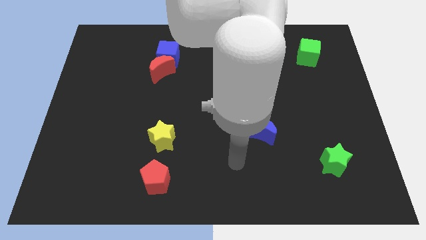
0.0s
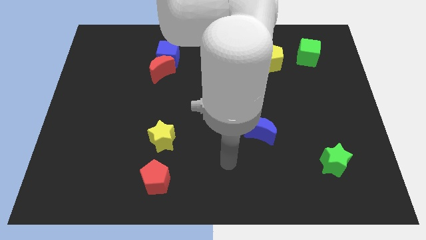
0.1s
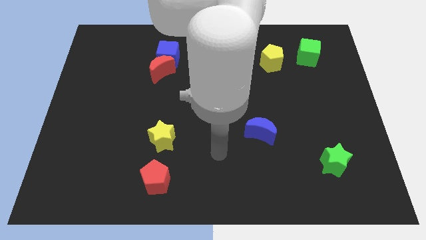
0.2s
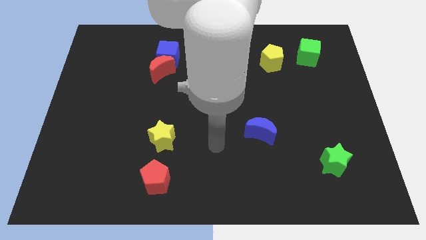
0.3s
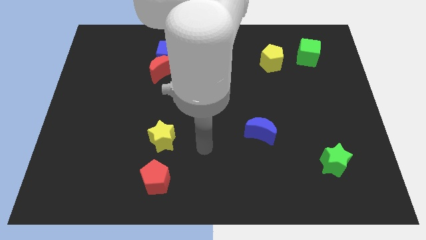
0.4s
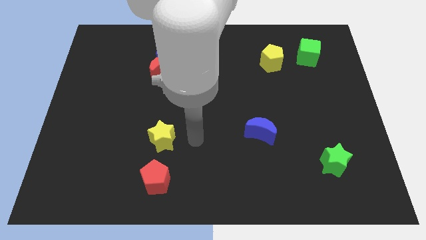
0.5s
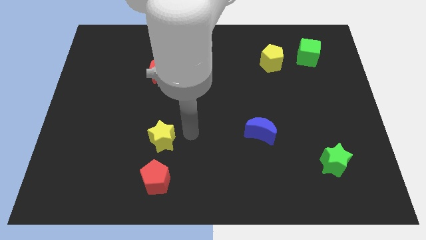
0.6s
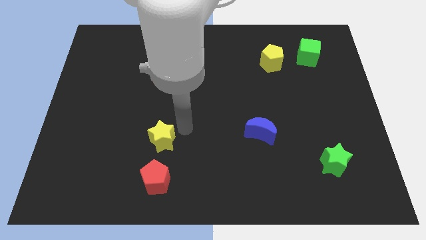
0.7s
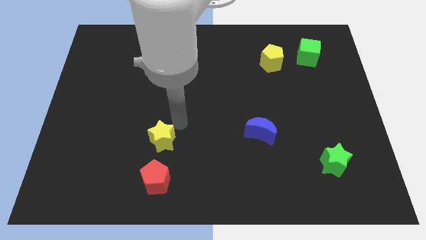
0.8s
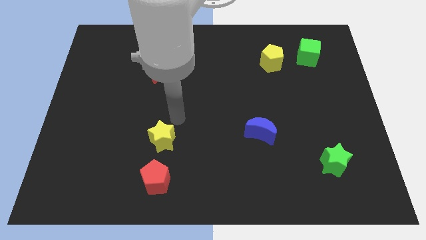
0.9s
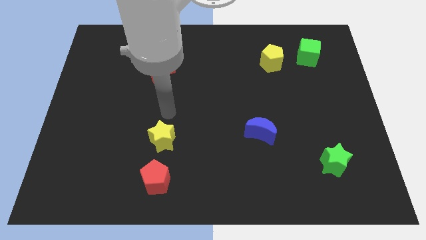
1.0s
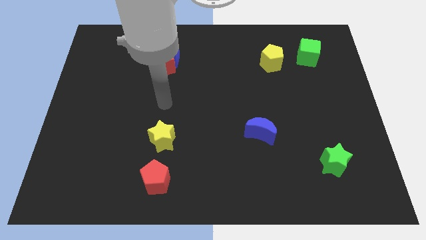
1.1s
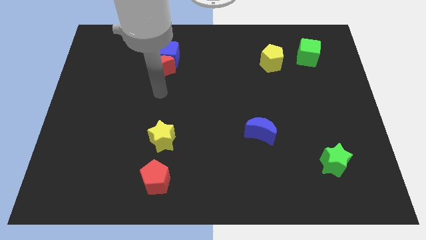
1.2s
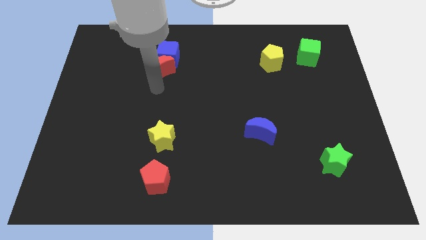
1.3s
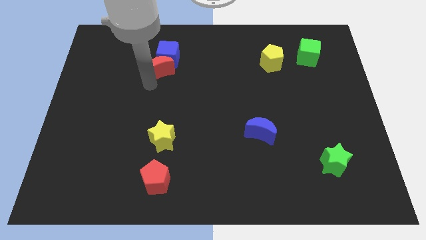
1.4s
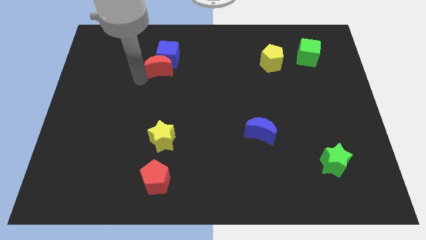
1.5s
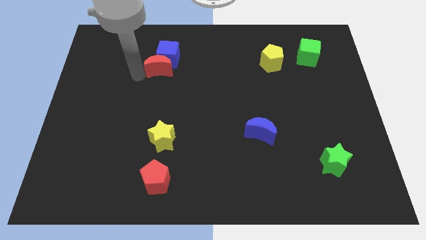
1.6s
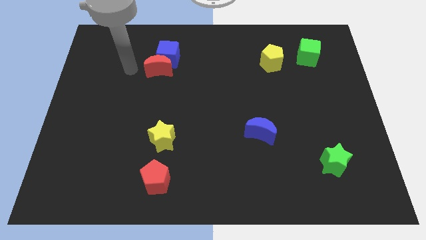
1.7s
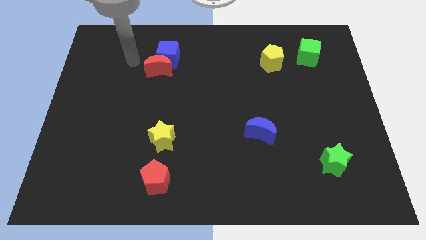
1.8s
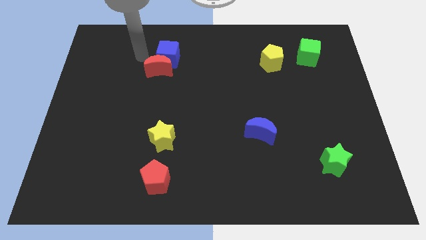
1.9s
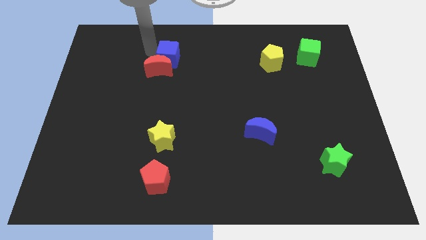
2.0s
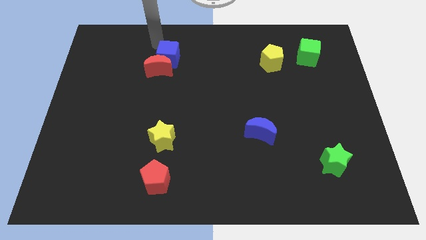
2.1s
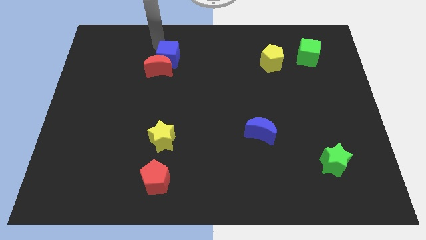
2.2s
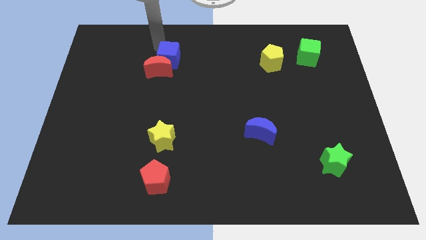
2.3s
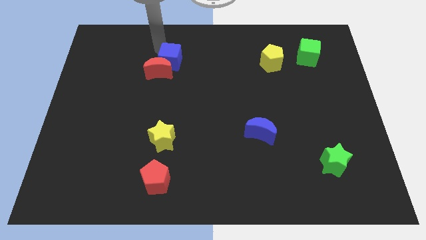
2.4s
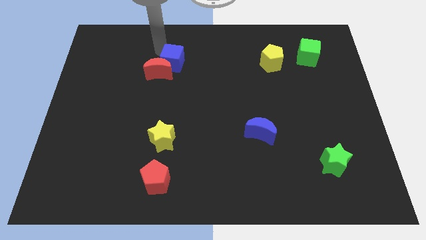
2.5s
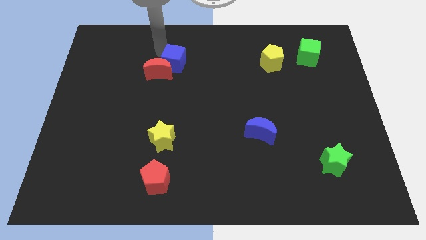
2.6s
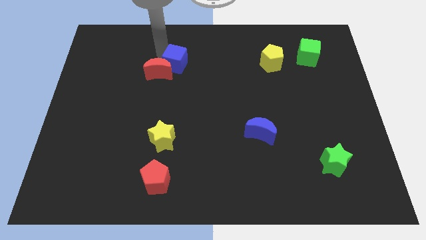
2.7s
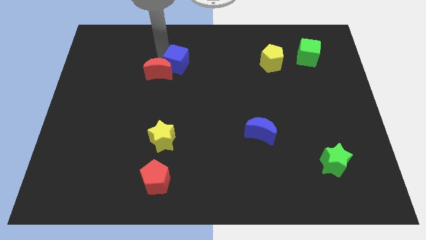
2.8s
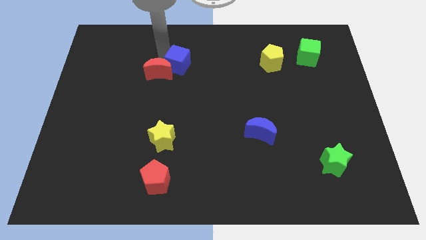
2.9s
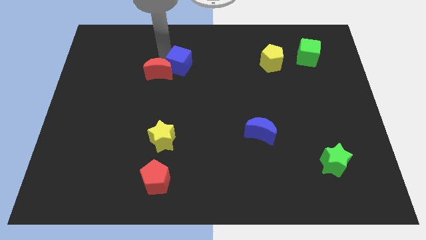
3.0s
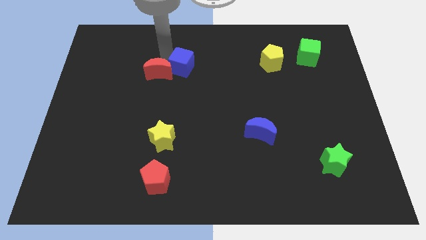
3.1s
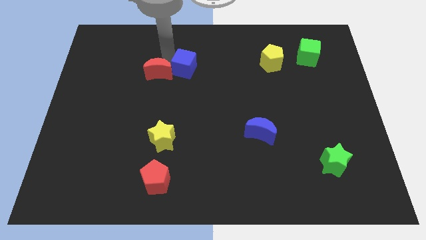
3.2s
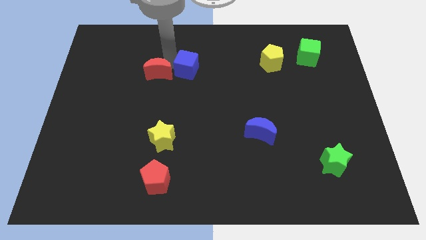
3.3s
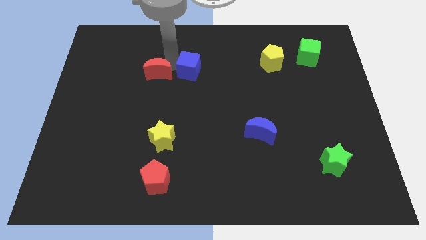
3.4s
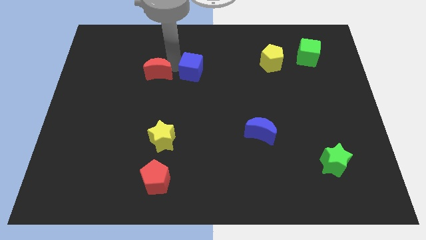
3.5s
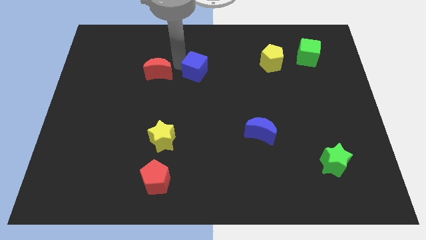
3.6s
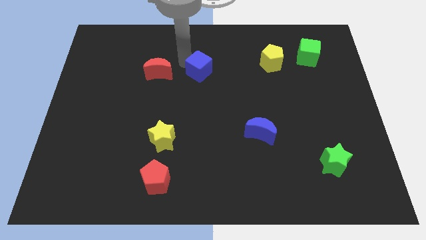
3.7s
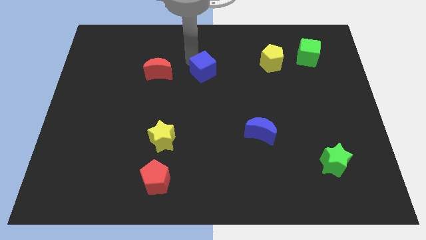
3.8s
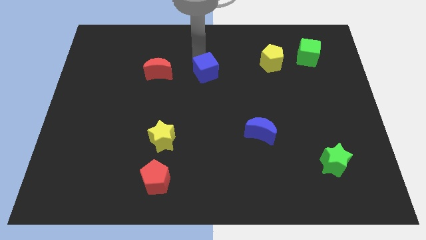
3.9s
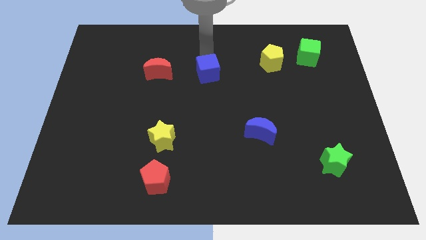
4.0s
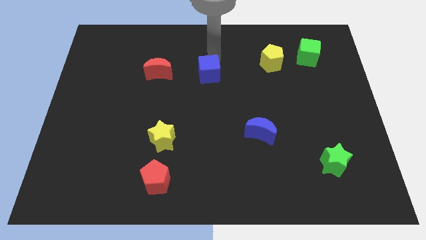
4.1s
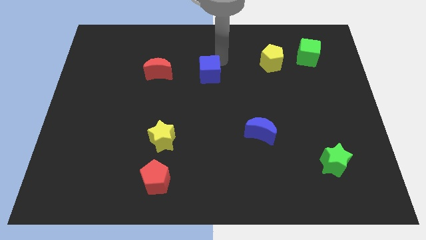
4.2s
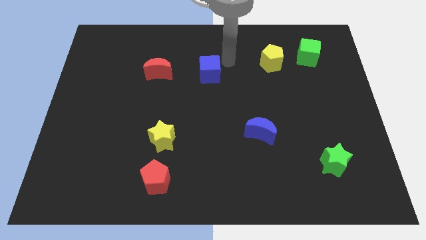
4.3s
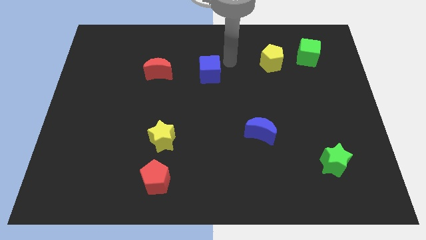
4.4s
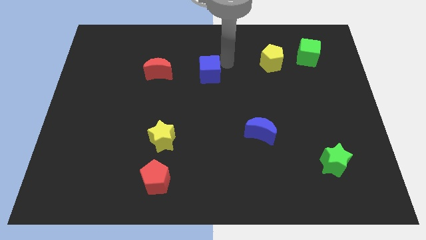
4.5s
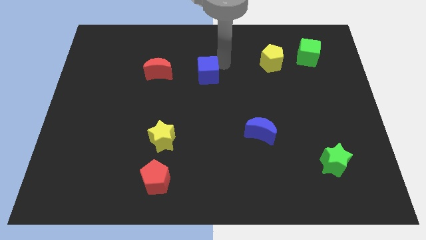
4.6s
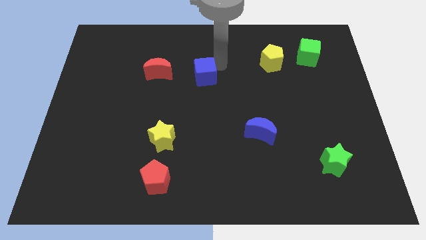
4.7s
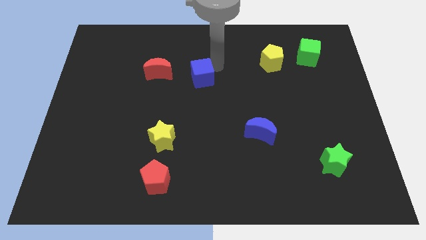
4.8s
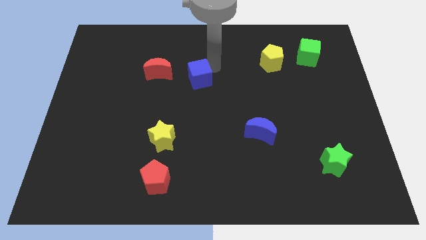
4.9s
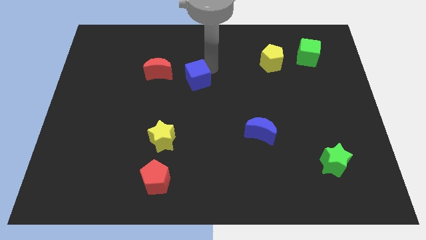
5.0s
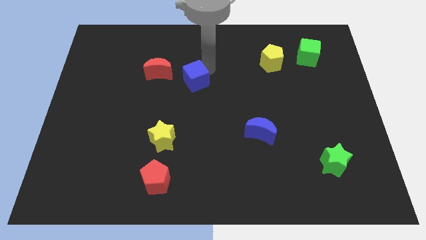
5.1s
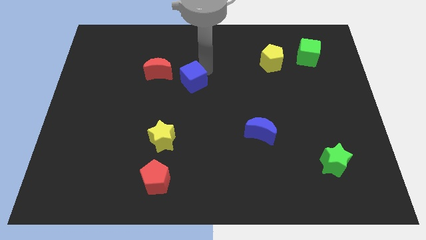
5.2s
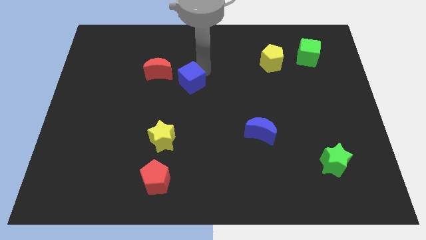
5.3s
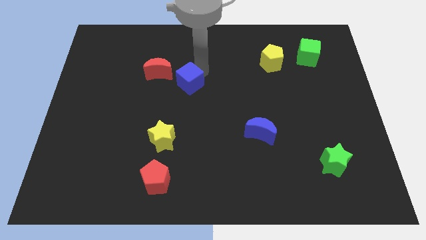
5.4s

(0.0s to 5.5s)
move the blue cube a little downwards

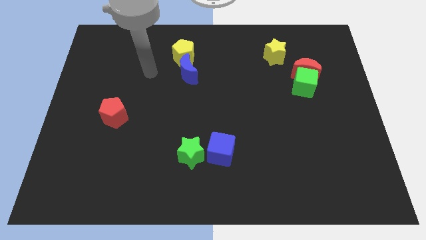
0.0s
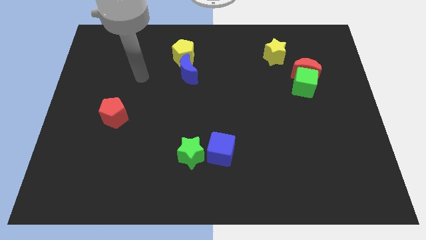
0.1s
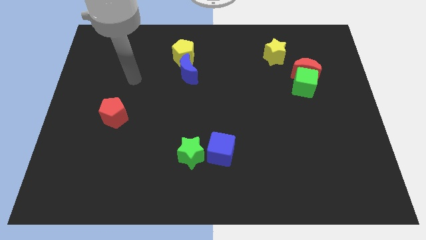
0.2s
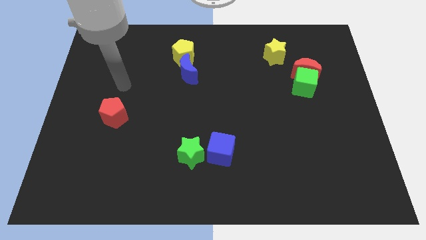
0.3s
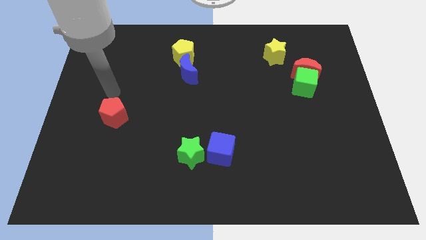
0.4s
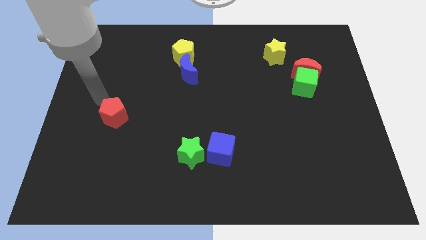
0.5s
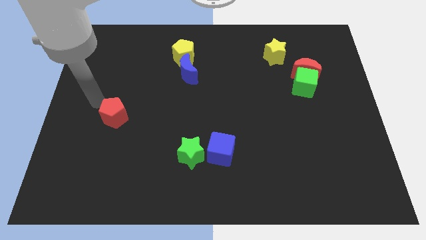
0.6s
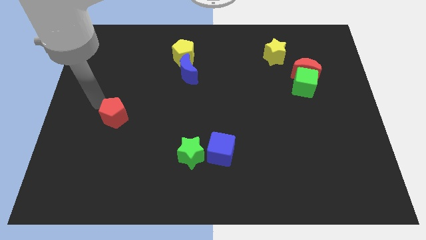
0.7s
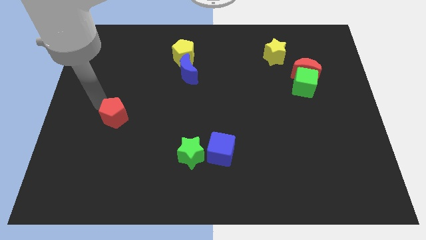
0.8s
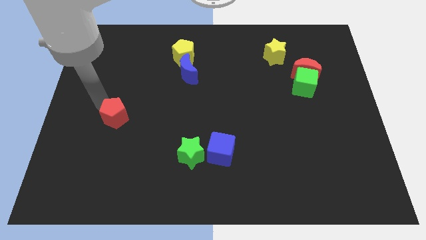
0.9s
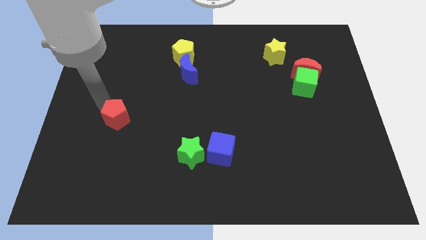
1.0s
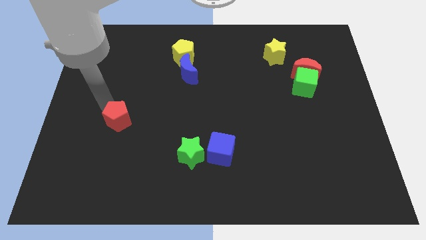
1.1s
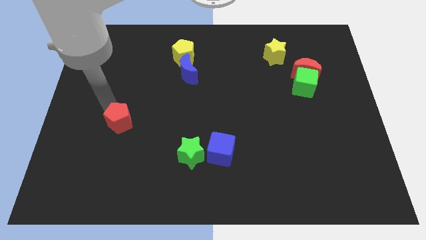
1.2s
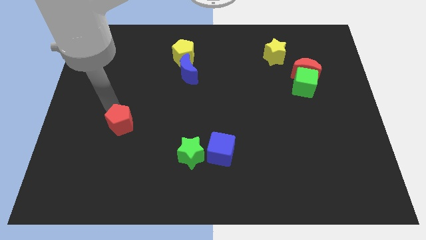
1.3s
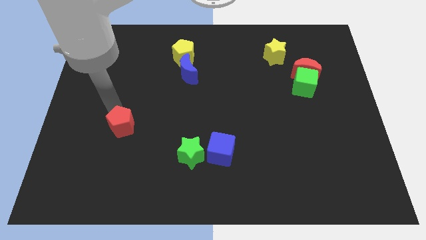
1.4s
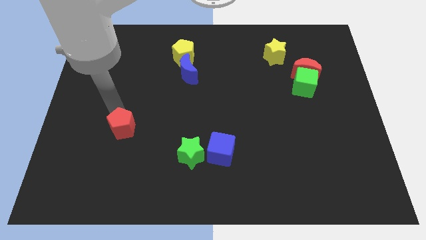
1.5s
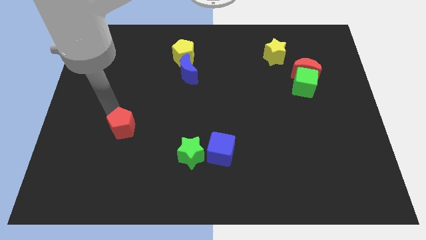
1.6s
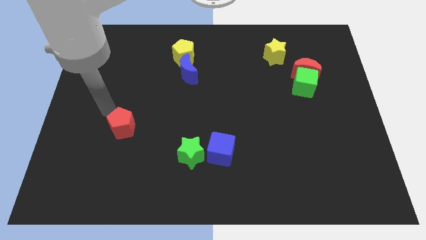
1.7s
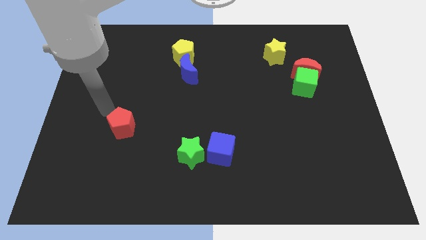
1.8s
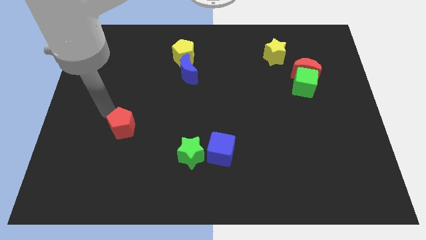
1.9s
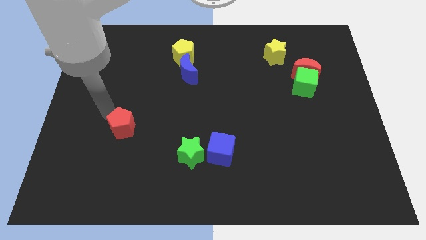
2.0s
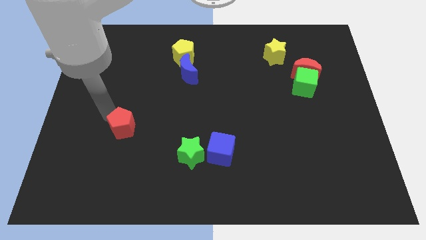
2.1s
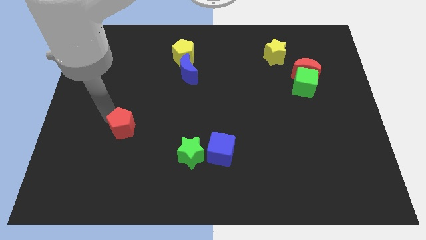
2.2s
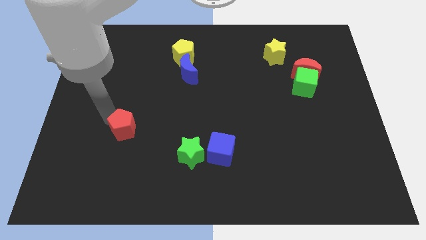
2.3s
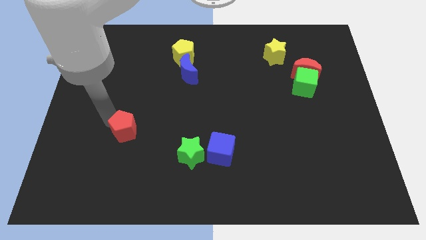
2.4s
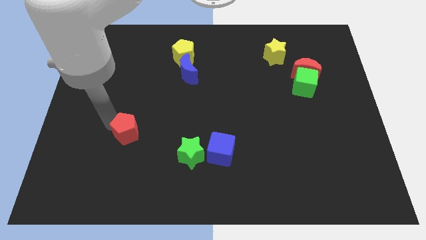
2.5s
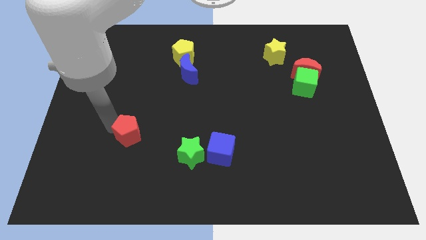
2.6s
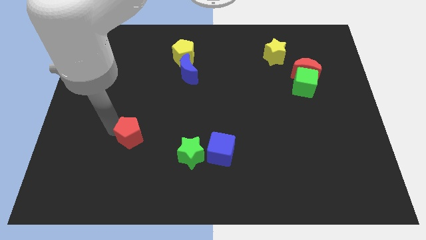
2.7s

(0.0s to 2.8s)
push the red pentagon downwards and right diagonally slightly
